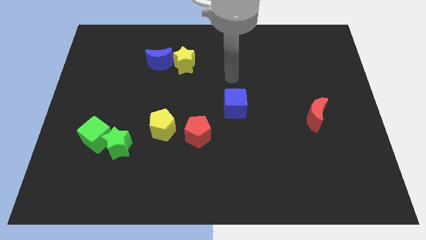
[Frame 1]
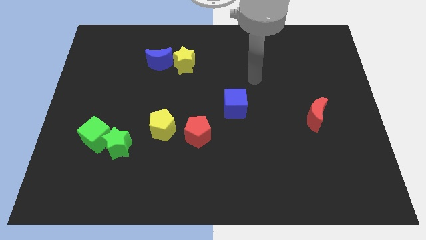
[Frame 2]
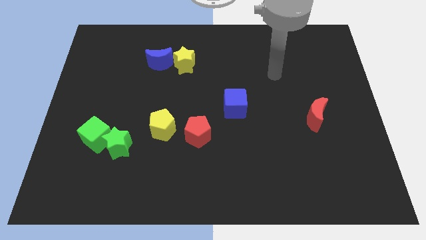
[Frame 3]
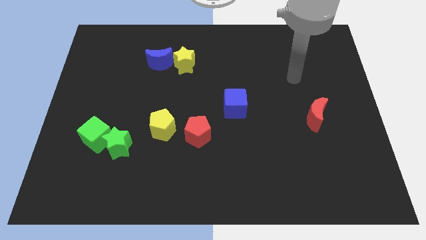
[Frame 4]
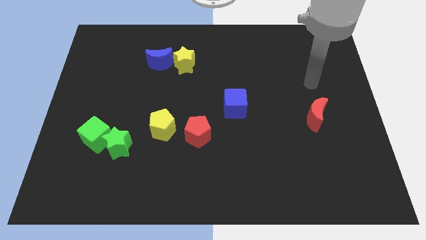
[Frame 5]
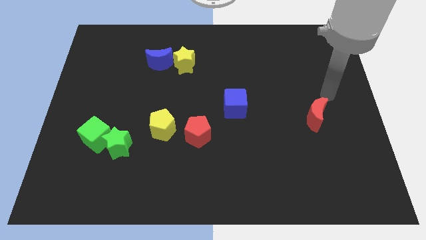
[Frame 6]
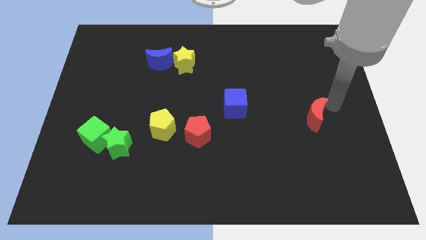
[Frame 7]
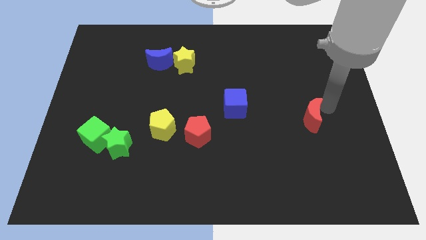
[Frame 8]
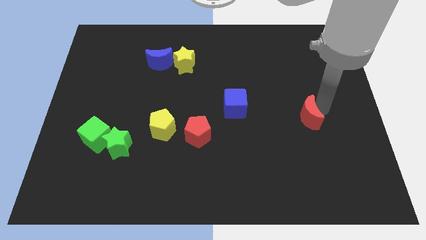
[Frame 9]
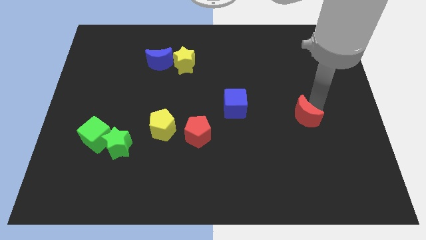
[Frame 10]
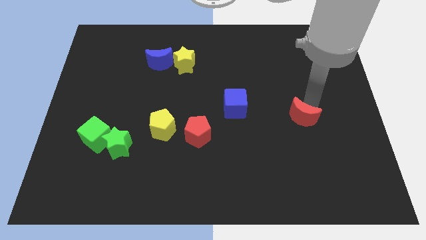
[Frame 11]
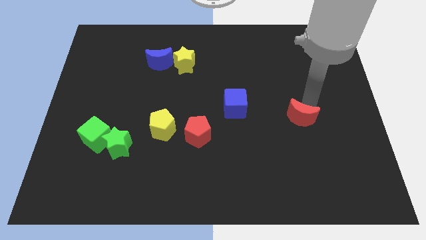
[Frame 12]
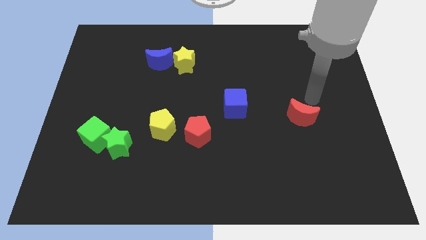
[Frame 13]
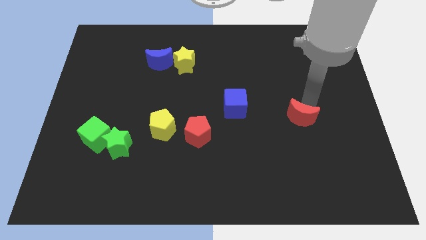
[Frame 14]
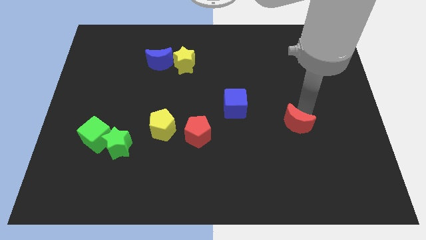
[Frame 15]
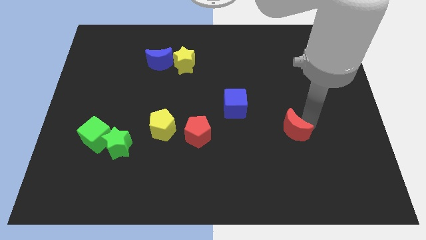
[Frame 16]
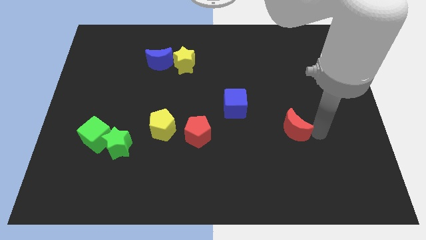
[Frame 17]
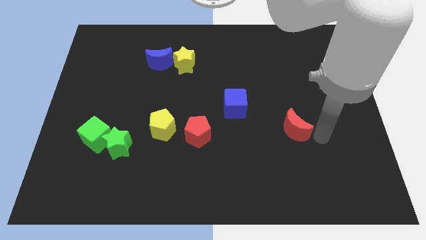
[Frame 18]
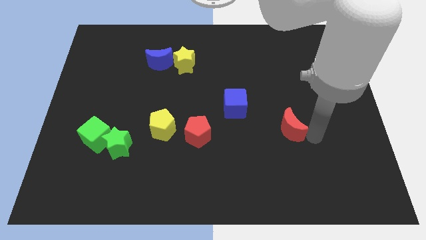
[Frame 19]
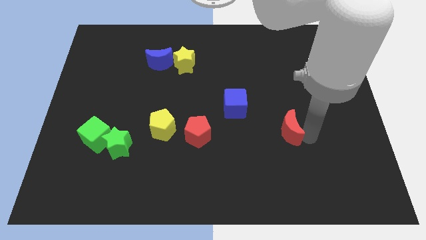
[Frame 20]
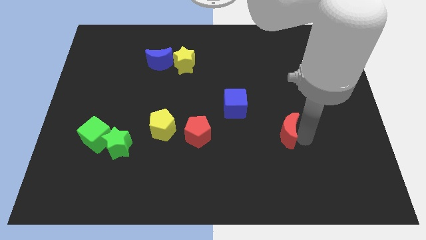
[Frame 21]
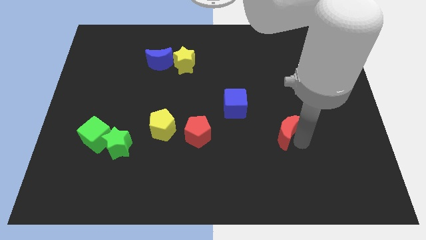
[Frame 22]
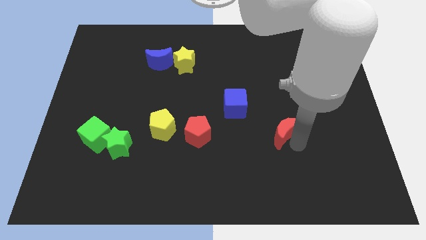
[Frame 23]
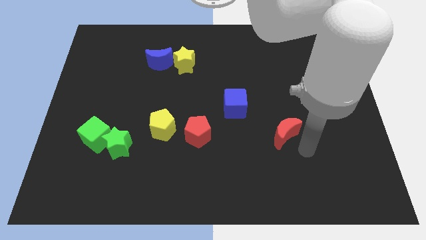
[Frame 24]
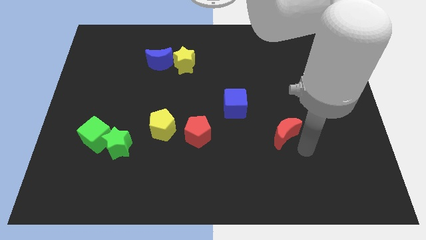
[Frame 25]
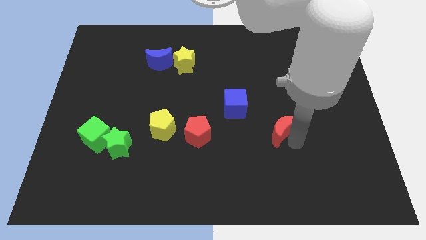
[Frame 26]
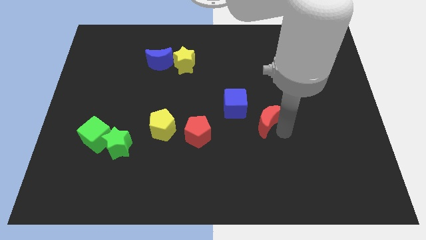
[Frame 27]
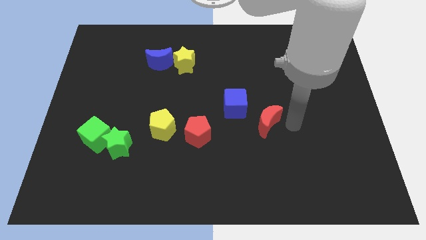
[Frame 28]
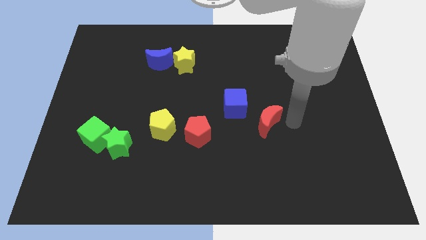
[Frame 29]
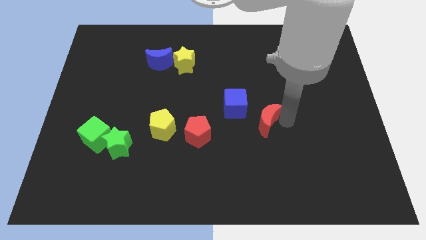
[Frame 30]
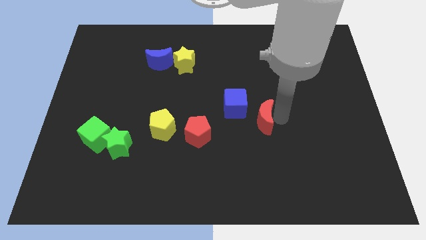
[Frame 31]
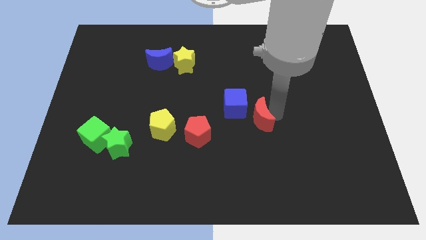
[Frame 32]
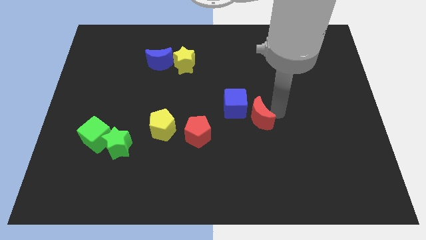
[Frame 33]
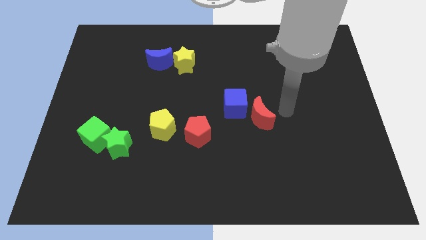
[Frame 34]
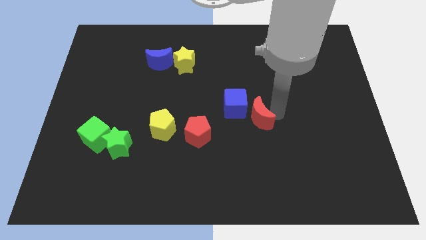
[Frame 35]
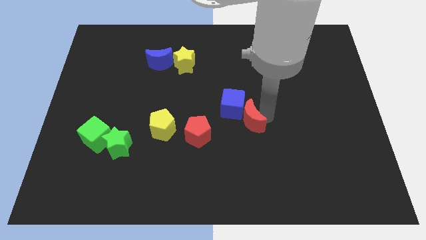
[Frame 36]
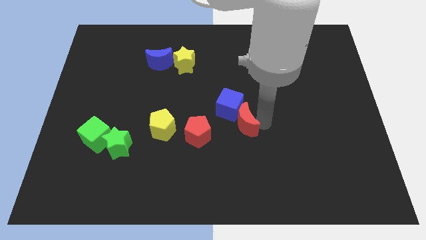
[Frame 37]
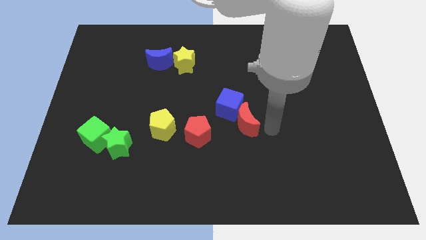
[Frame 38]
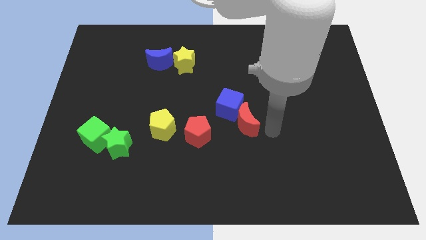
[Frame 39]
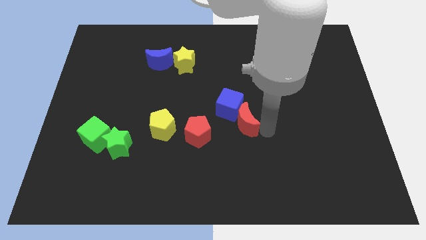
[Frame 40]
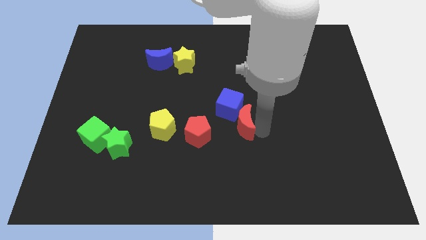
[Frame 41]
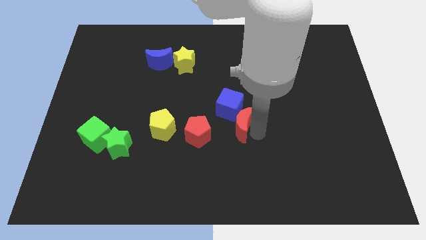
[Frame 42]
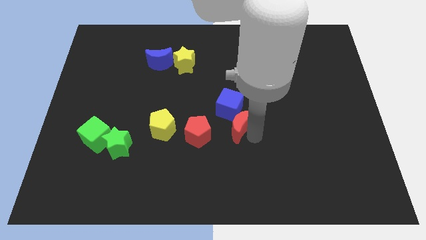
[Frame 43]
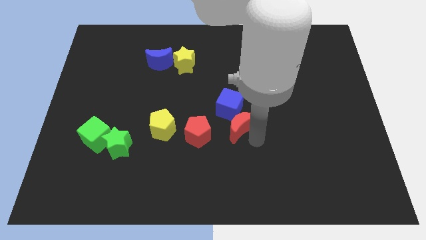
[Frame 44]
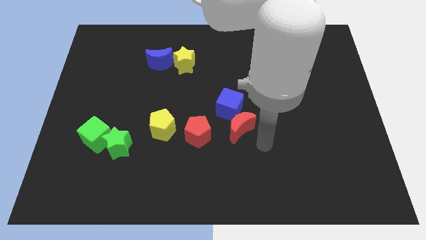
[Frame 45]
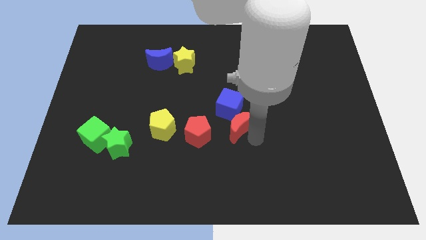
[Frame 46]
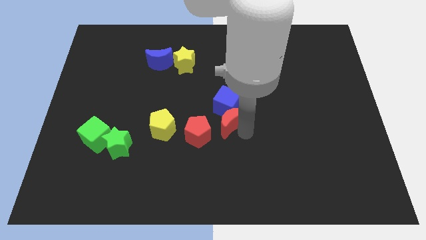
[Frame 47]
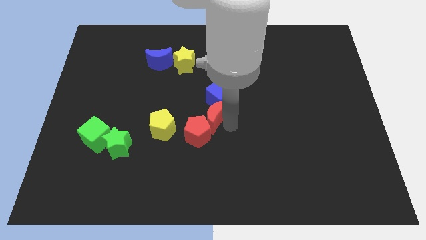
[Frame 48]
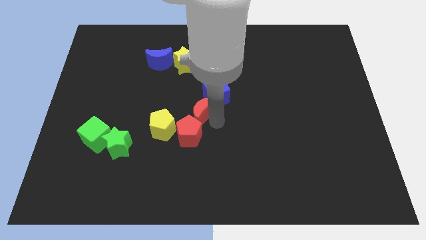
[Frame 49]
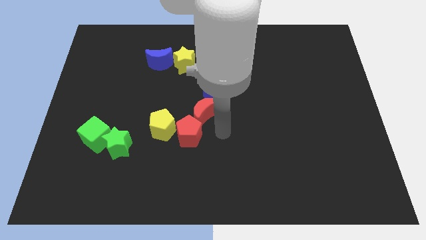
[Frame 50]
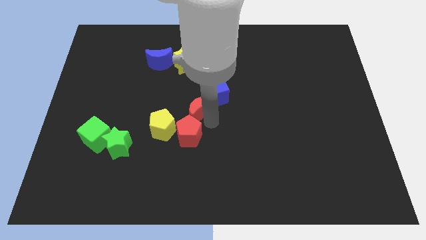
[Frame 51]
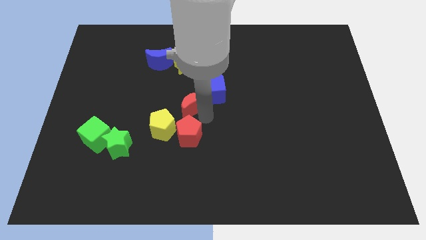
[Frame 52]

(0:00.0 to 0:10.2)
move the red moon to the bottom side of the yellow star

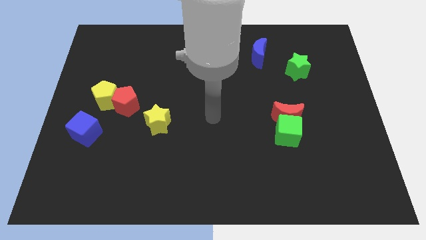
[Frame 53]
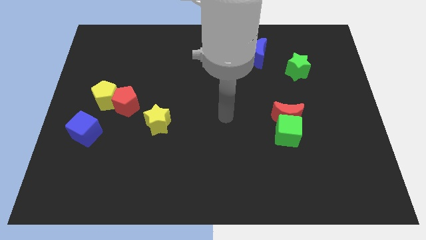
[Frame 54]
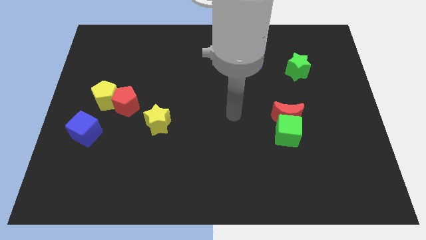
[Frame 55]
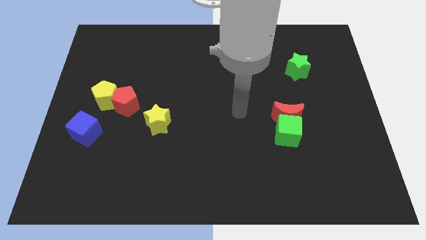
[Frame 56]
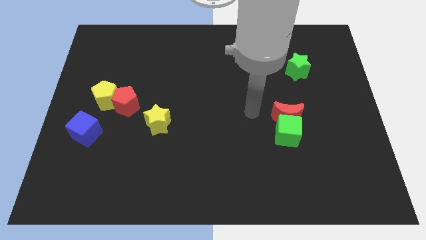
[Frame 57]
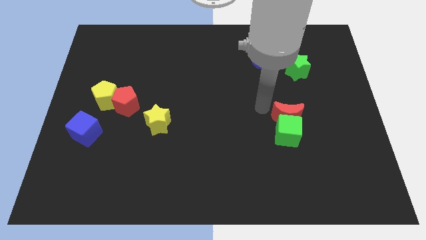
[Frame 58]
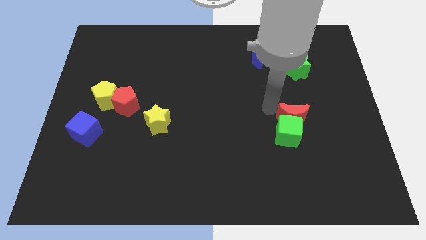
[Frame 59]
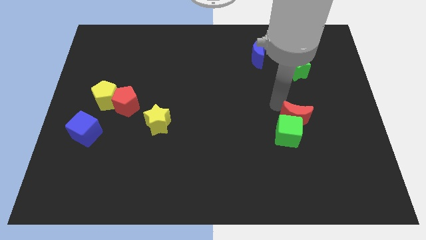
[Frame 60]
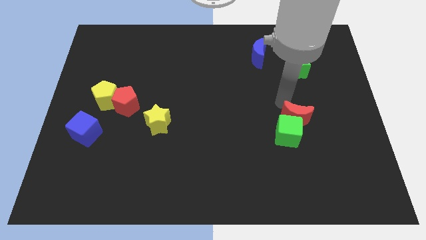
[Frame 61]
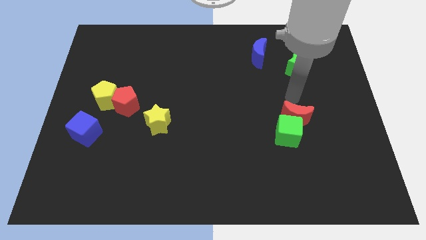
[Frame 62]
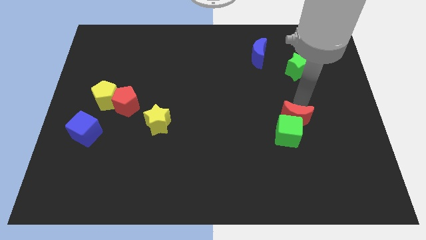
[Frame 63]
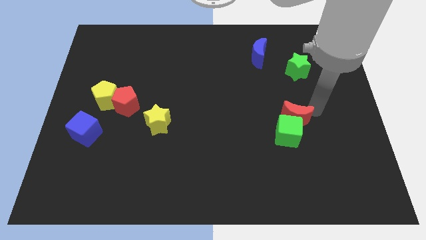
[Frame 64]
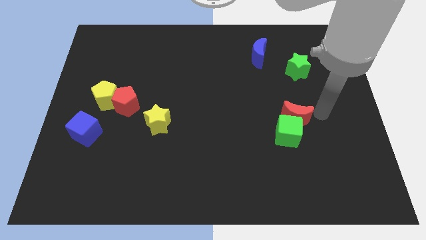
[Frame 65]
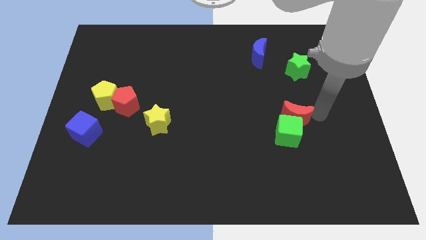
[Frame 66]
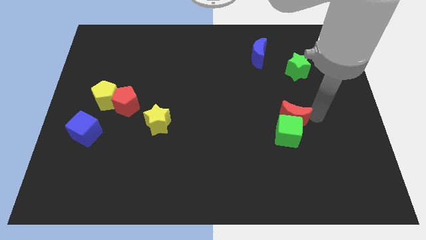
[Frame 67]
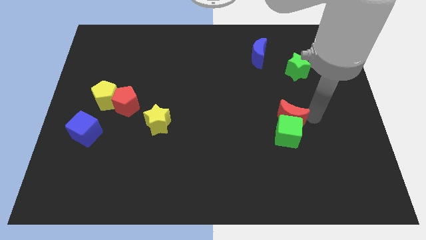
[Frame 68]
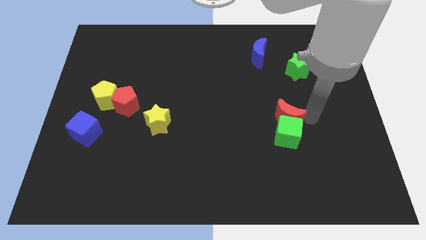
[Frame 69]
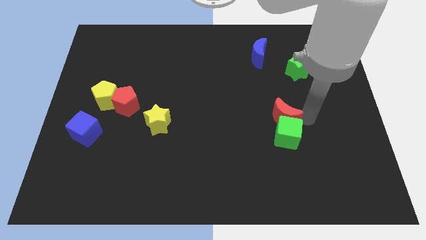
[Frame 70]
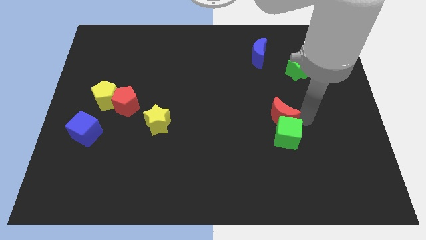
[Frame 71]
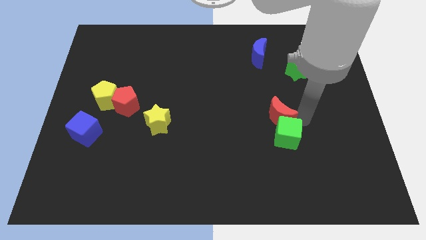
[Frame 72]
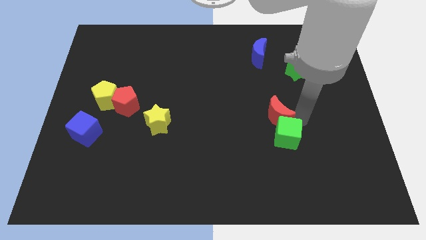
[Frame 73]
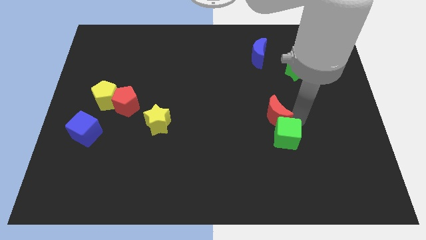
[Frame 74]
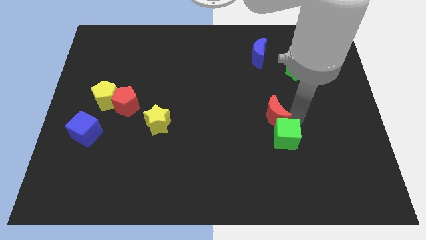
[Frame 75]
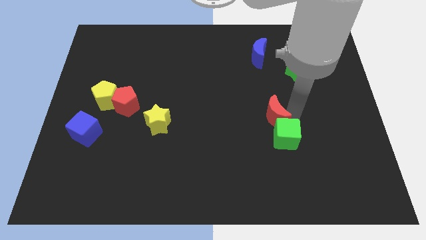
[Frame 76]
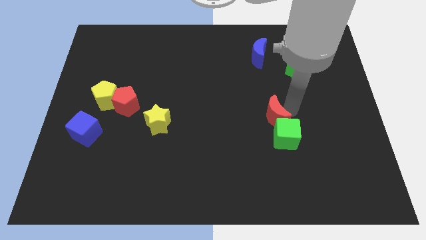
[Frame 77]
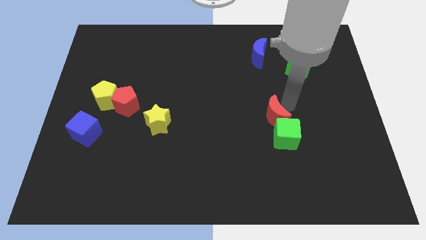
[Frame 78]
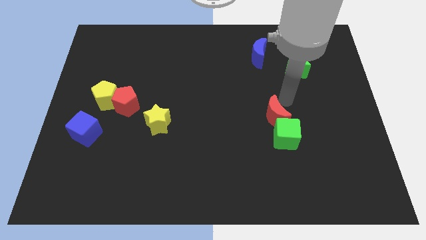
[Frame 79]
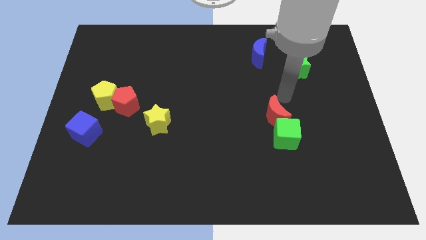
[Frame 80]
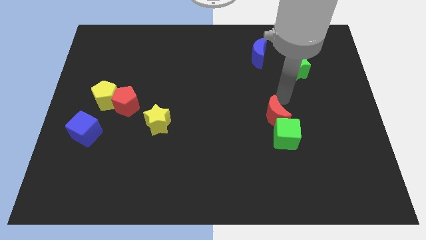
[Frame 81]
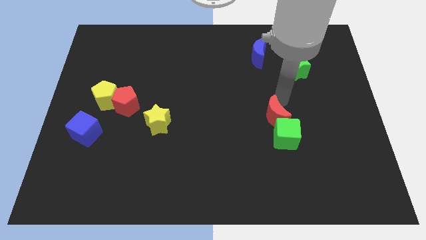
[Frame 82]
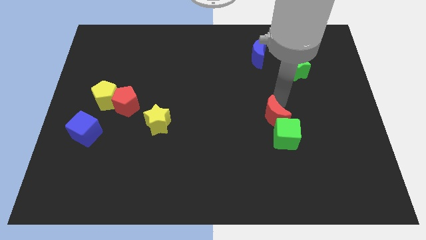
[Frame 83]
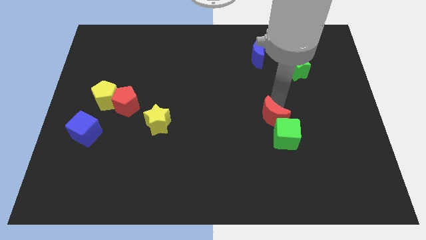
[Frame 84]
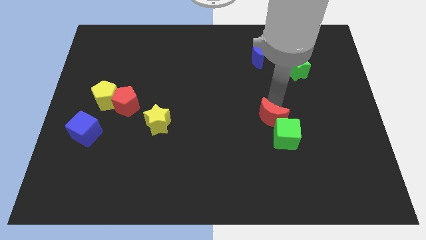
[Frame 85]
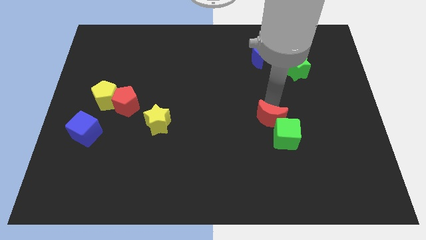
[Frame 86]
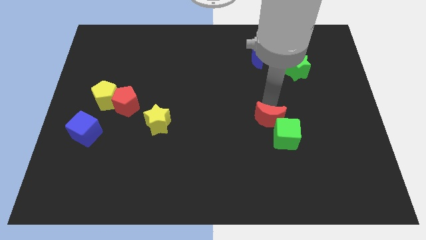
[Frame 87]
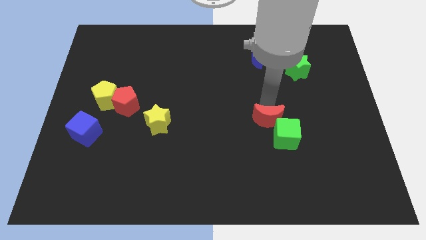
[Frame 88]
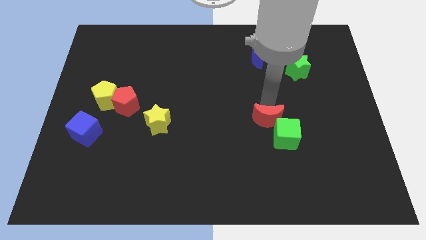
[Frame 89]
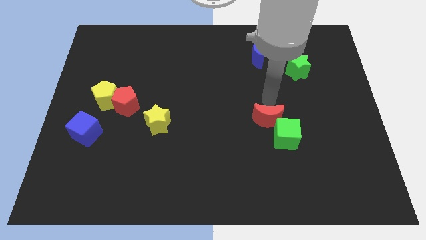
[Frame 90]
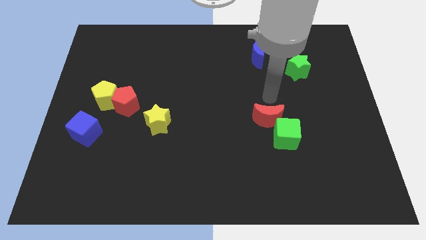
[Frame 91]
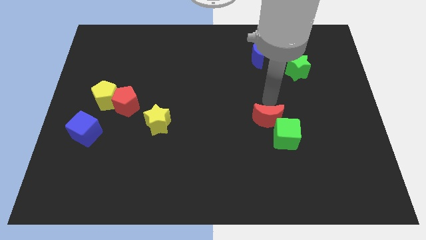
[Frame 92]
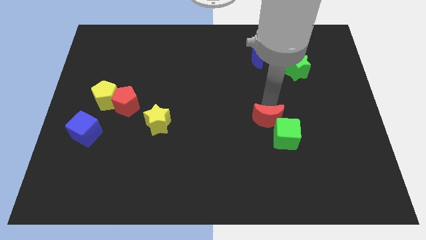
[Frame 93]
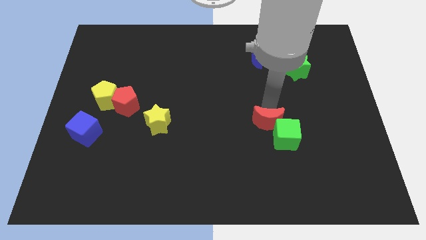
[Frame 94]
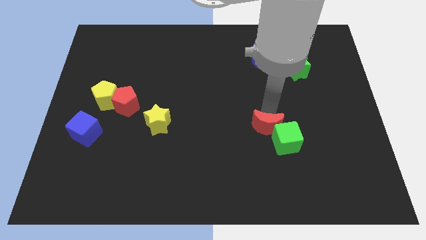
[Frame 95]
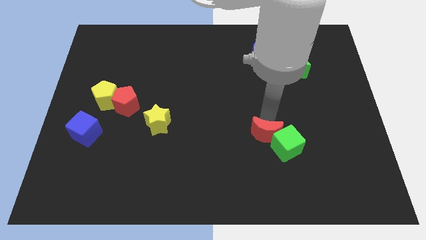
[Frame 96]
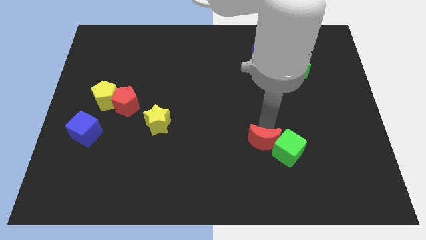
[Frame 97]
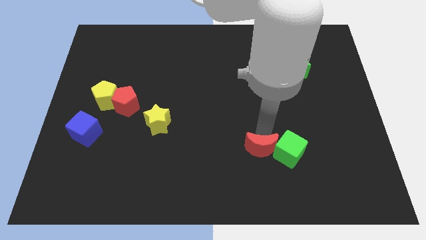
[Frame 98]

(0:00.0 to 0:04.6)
slide the red moon to the bottom left of the green cube
